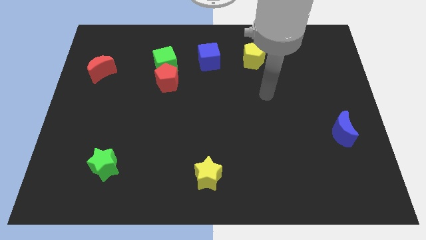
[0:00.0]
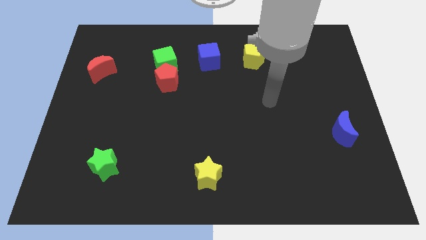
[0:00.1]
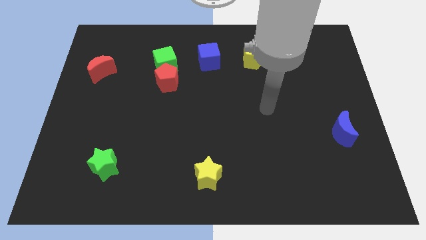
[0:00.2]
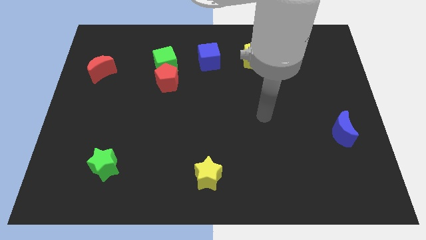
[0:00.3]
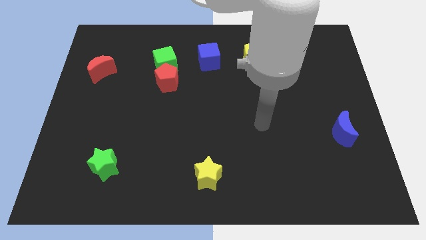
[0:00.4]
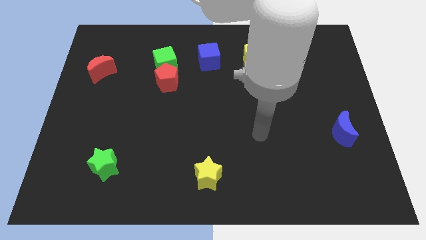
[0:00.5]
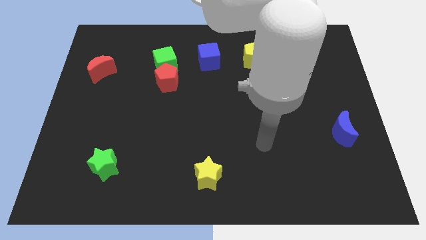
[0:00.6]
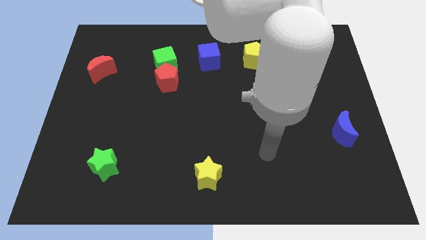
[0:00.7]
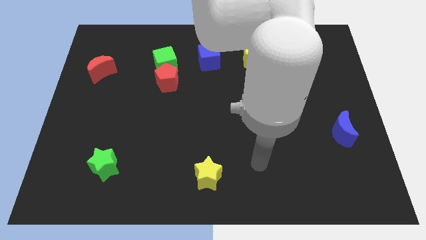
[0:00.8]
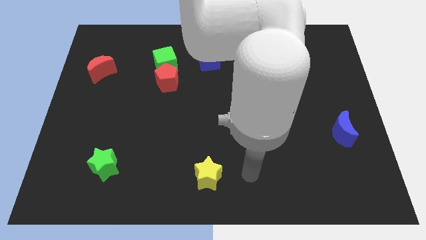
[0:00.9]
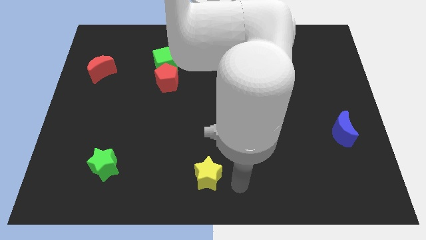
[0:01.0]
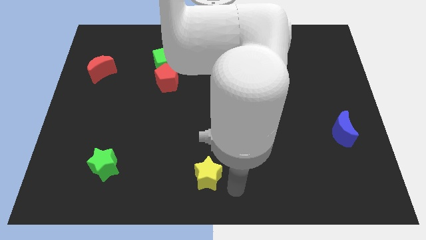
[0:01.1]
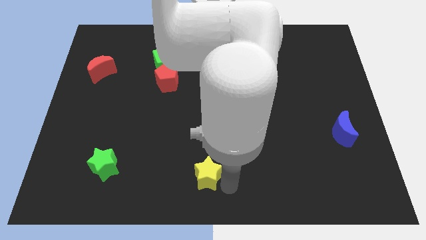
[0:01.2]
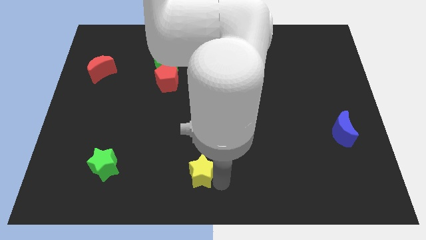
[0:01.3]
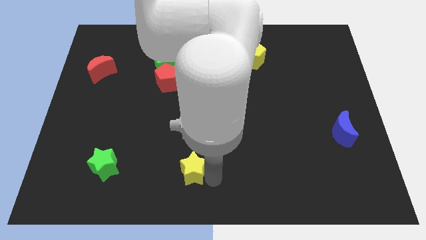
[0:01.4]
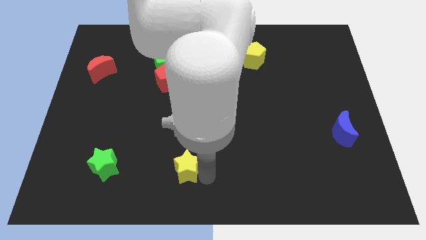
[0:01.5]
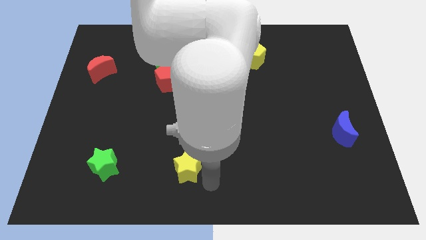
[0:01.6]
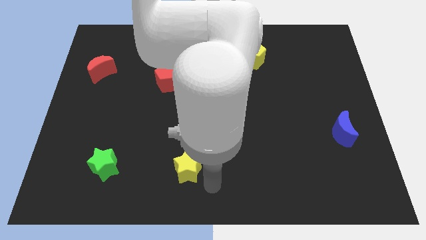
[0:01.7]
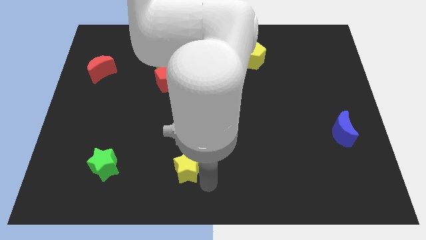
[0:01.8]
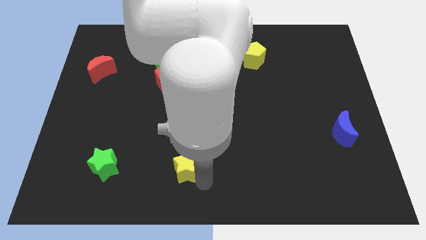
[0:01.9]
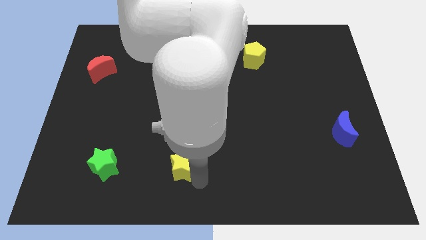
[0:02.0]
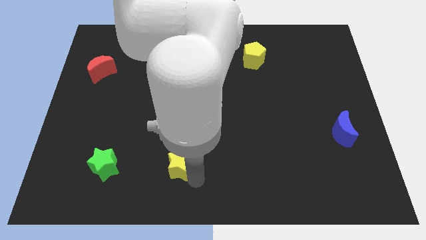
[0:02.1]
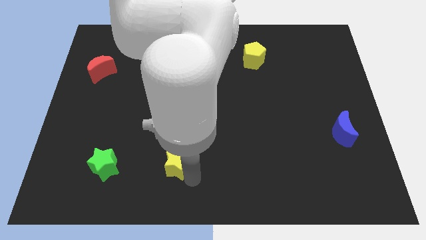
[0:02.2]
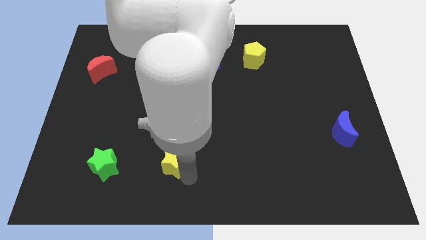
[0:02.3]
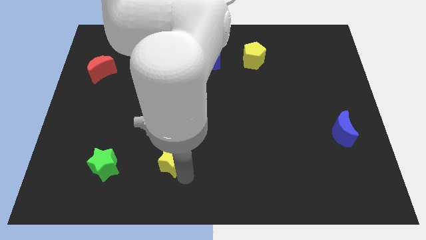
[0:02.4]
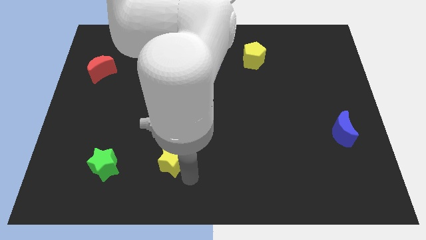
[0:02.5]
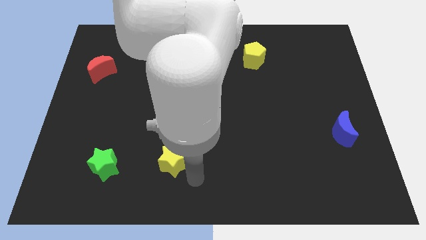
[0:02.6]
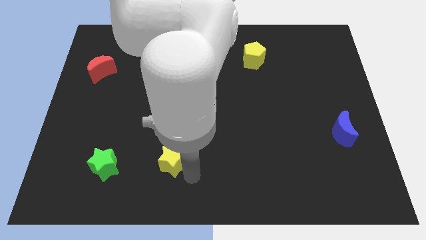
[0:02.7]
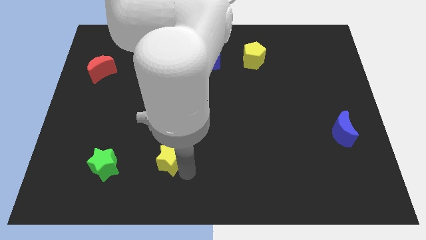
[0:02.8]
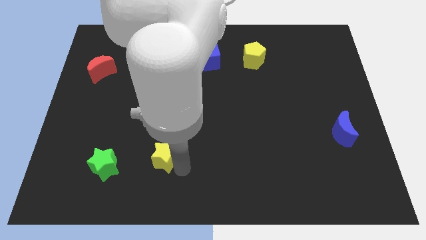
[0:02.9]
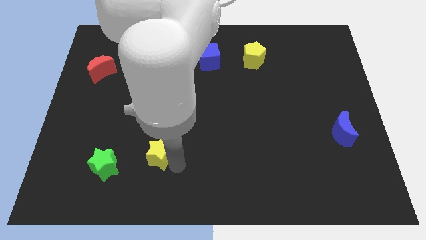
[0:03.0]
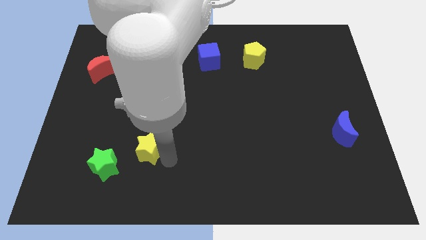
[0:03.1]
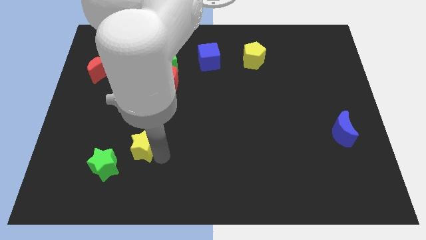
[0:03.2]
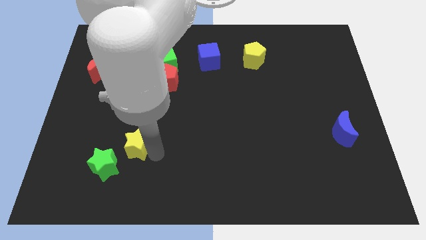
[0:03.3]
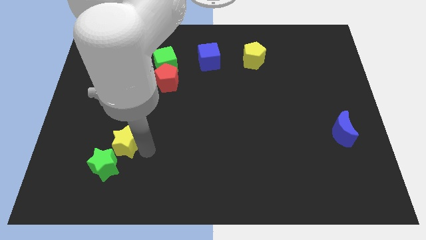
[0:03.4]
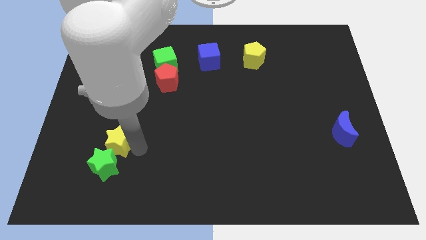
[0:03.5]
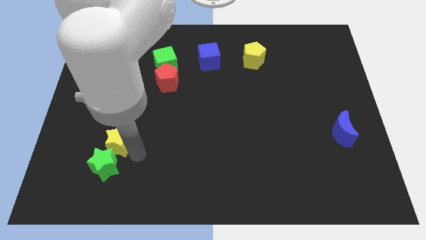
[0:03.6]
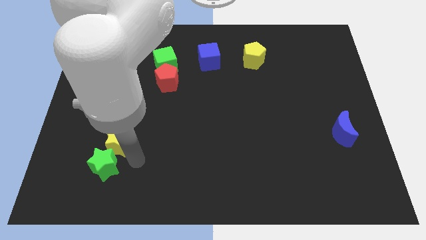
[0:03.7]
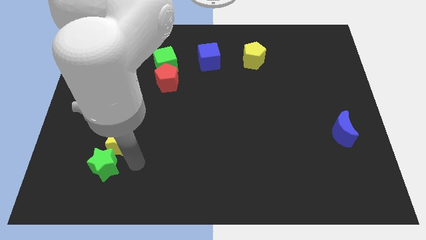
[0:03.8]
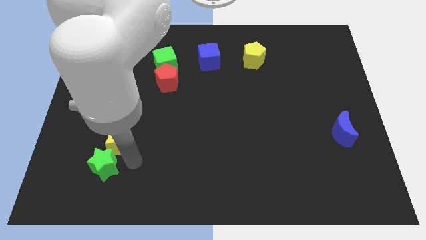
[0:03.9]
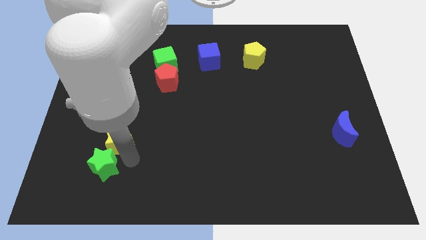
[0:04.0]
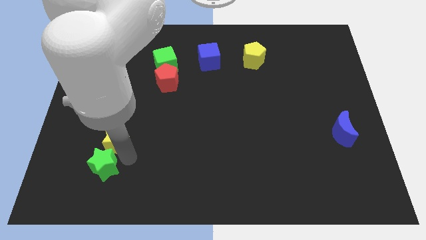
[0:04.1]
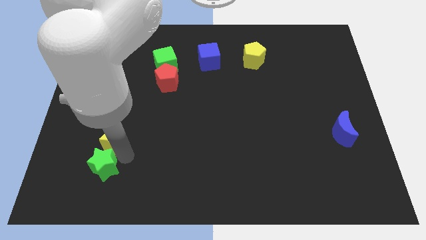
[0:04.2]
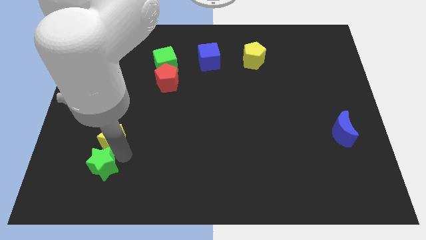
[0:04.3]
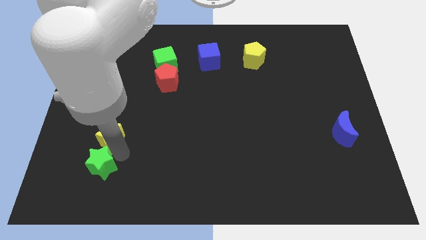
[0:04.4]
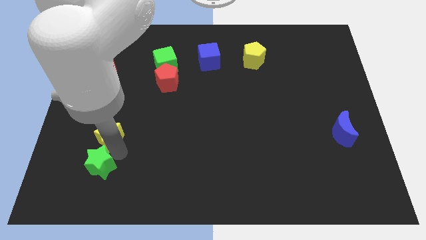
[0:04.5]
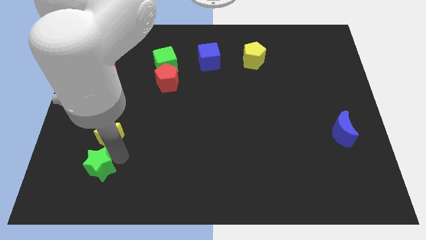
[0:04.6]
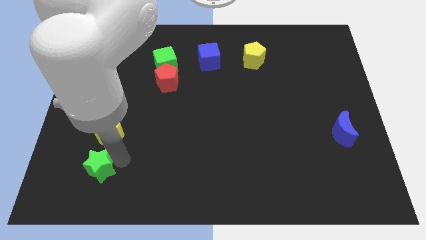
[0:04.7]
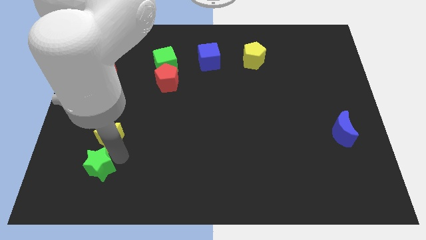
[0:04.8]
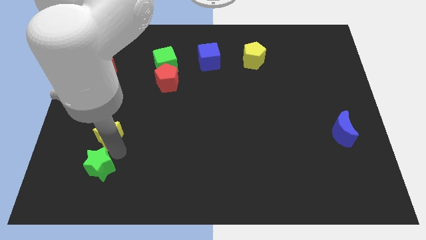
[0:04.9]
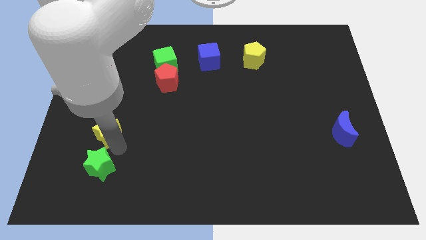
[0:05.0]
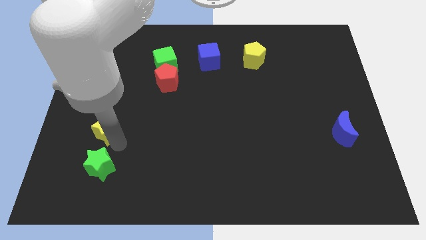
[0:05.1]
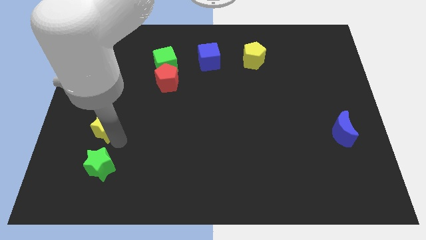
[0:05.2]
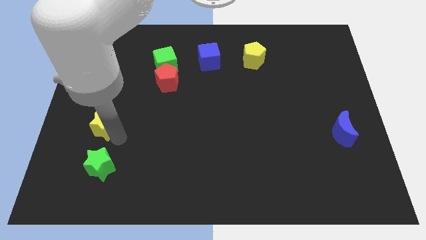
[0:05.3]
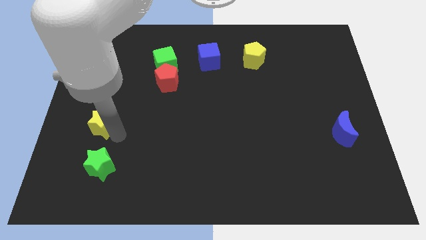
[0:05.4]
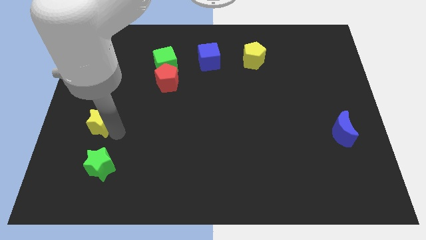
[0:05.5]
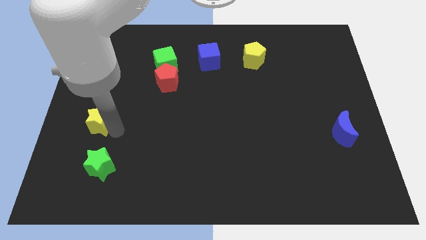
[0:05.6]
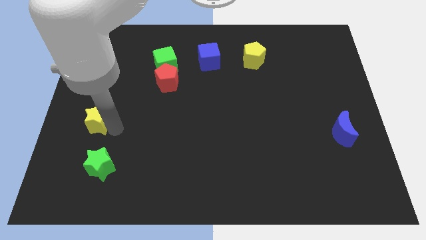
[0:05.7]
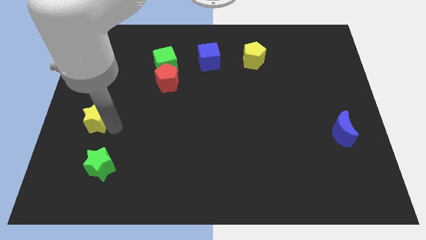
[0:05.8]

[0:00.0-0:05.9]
move the yellow star to the center left

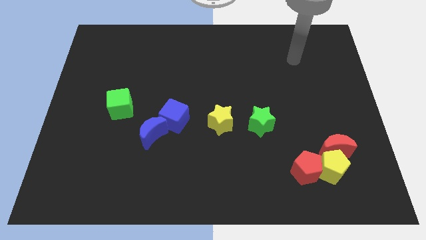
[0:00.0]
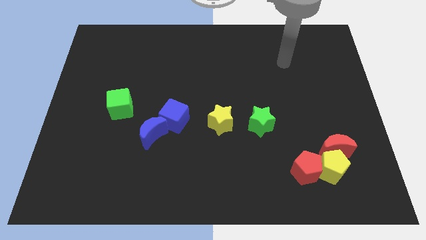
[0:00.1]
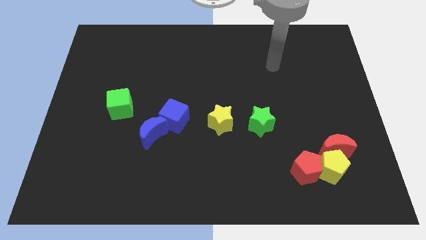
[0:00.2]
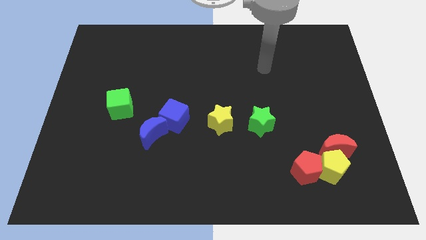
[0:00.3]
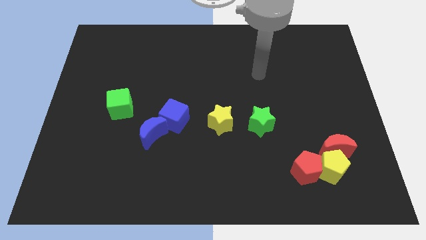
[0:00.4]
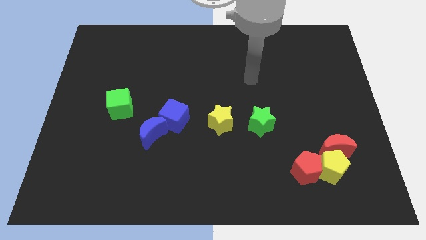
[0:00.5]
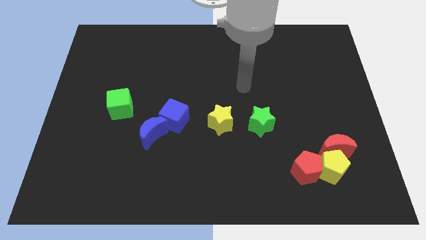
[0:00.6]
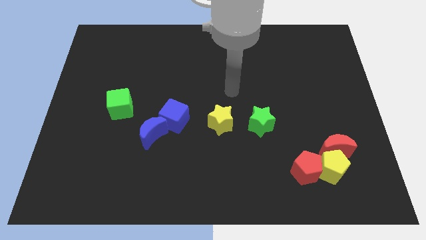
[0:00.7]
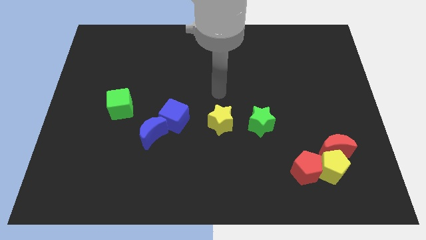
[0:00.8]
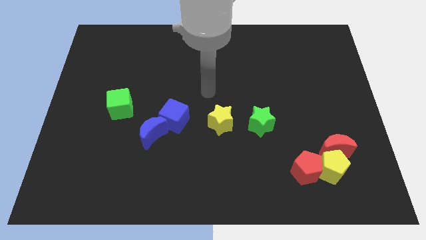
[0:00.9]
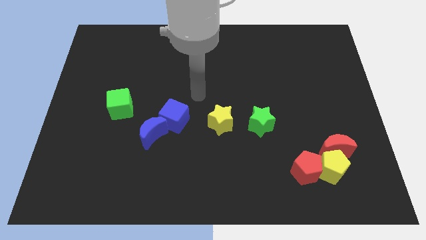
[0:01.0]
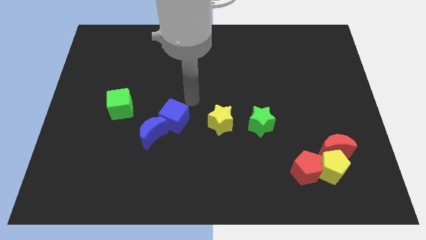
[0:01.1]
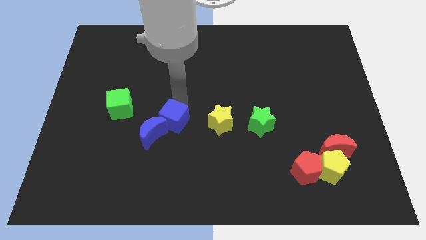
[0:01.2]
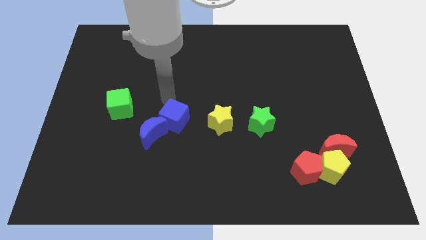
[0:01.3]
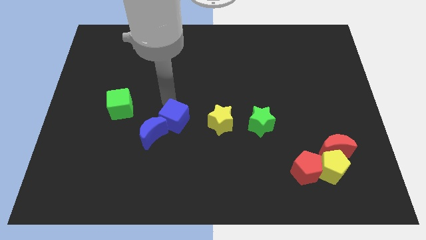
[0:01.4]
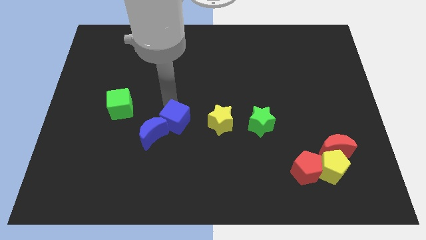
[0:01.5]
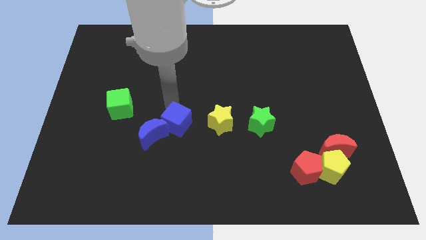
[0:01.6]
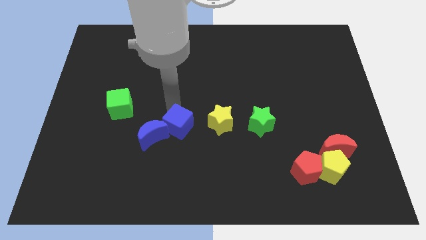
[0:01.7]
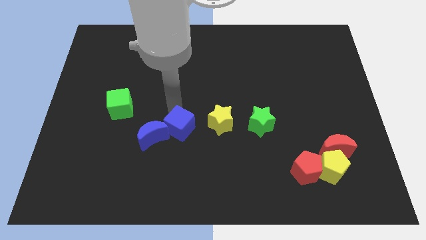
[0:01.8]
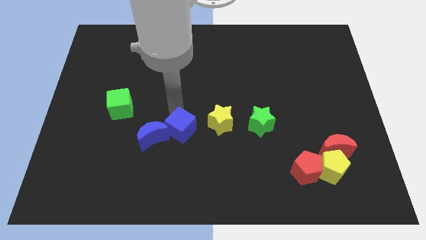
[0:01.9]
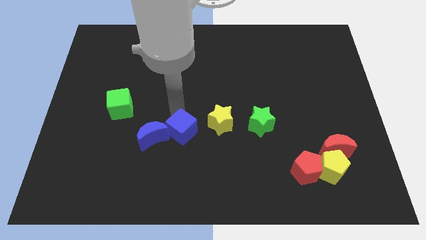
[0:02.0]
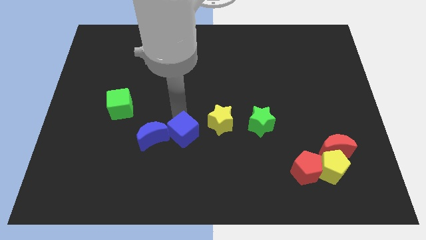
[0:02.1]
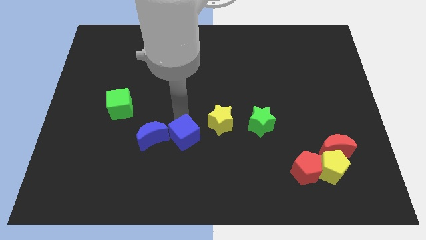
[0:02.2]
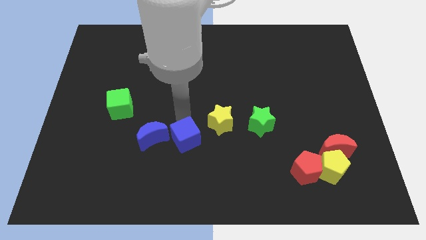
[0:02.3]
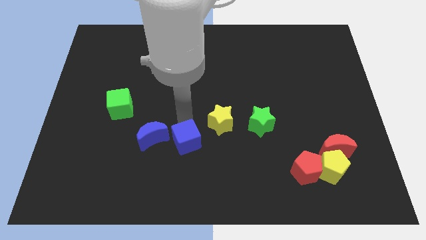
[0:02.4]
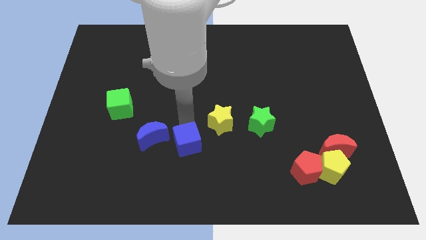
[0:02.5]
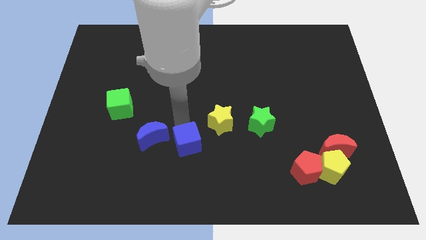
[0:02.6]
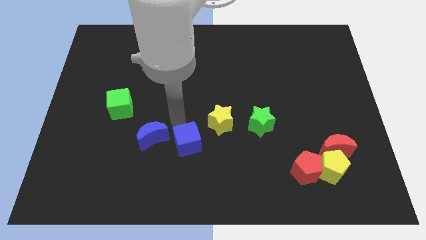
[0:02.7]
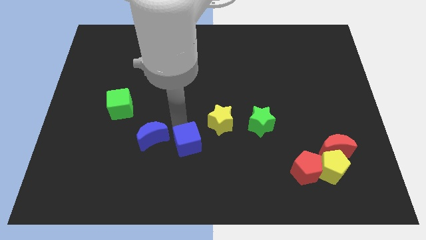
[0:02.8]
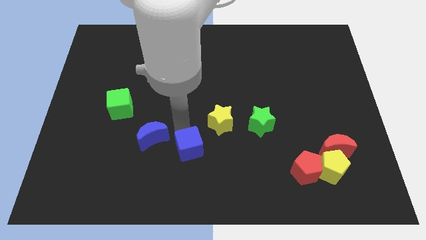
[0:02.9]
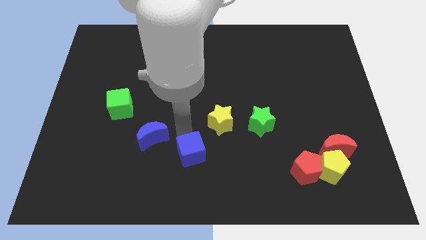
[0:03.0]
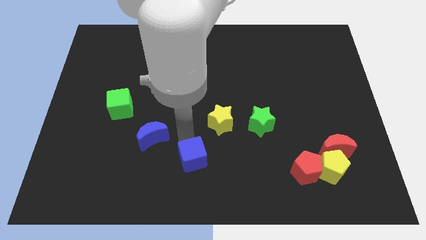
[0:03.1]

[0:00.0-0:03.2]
slide the blue cube to the bottom
